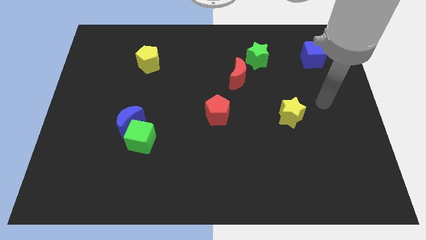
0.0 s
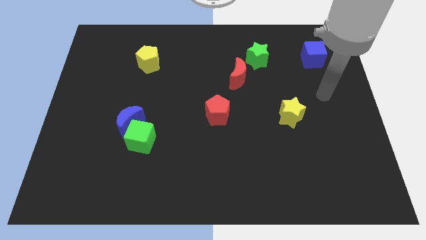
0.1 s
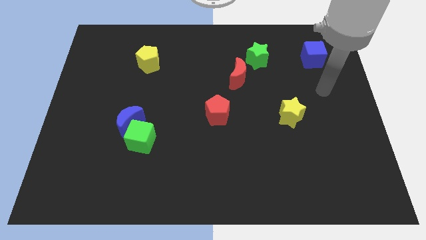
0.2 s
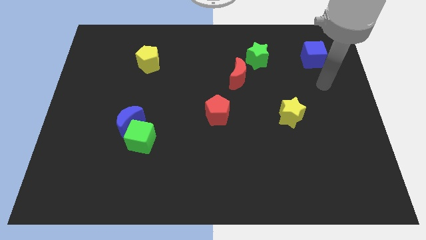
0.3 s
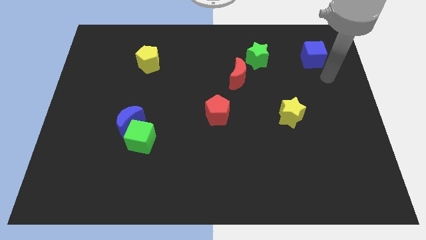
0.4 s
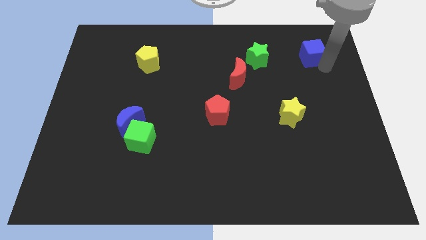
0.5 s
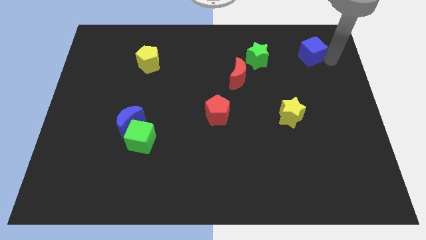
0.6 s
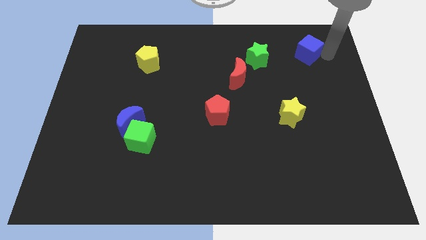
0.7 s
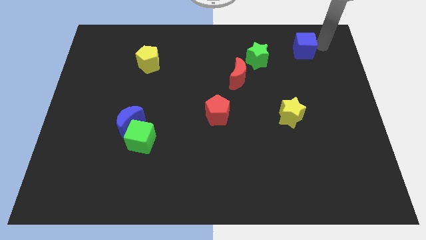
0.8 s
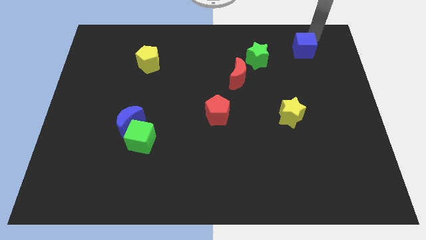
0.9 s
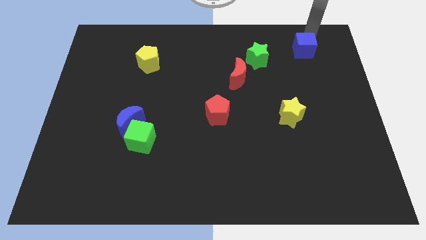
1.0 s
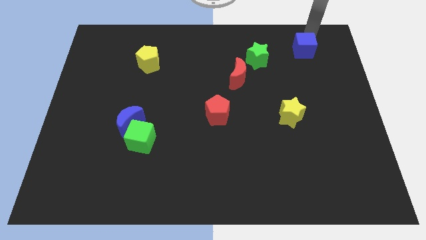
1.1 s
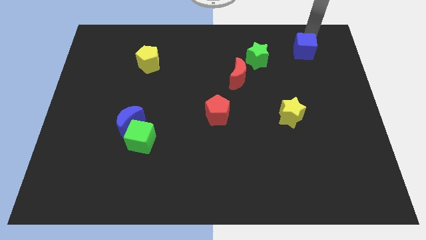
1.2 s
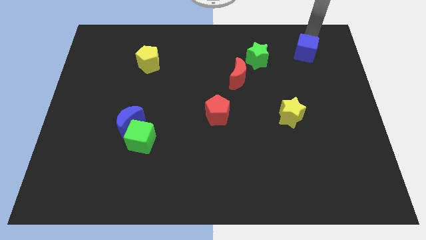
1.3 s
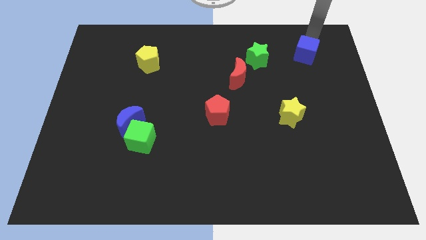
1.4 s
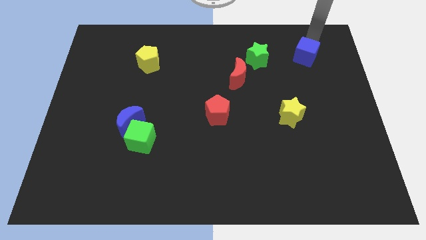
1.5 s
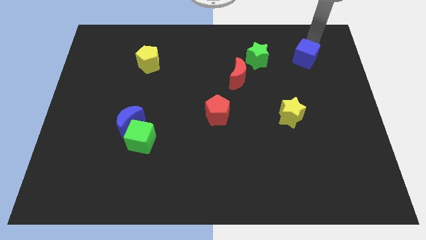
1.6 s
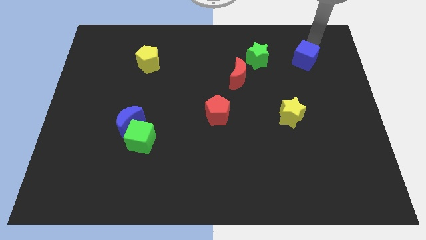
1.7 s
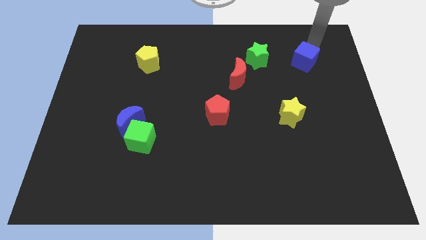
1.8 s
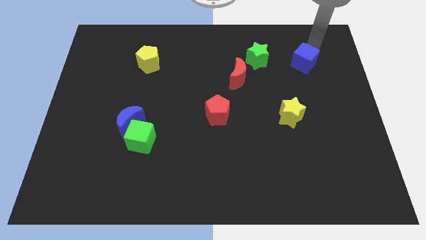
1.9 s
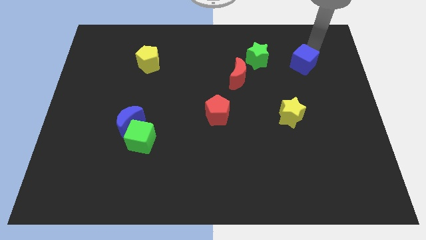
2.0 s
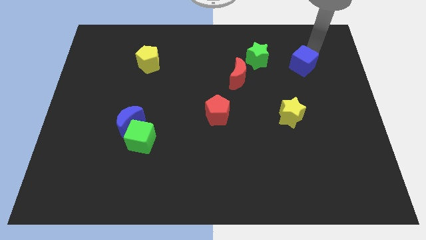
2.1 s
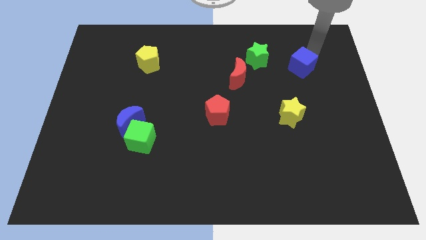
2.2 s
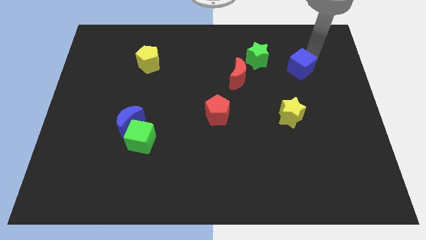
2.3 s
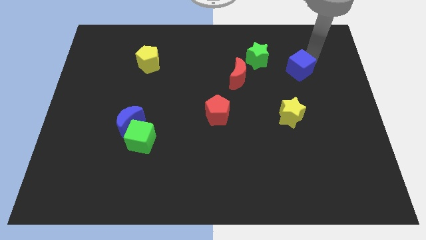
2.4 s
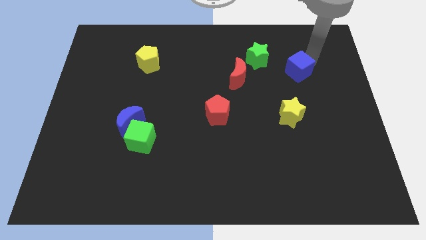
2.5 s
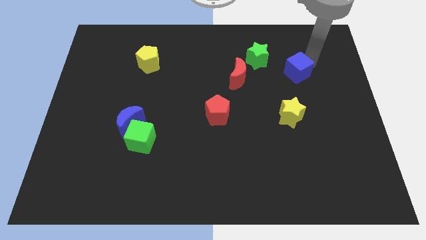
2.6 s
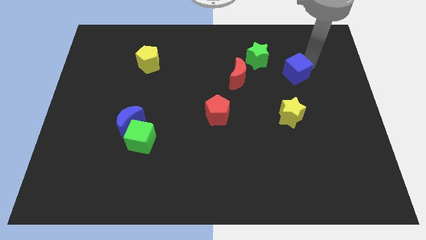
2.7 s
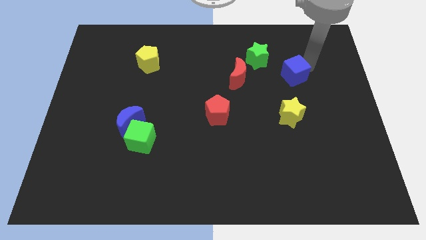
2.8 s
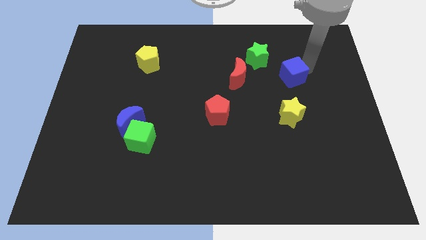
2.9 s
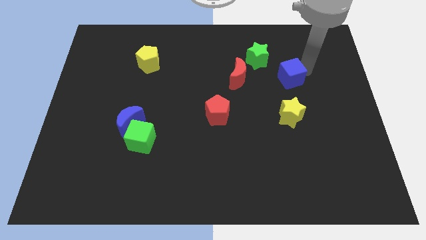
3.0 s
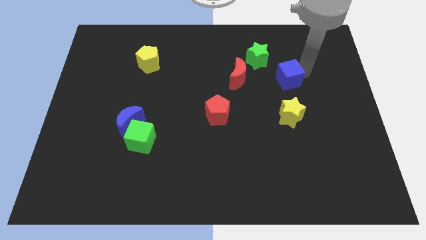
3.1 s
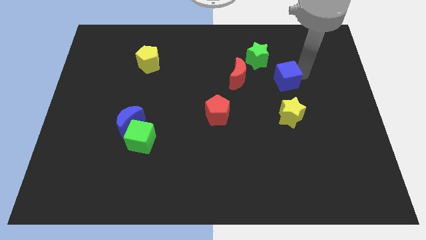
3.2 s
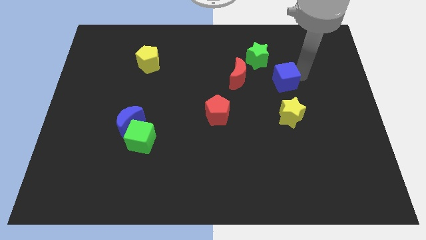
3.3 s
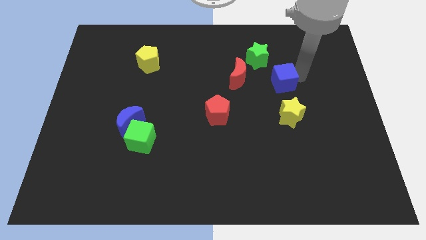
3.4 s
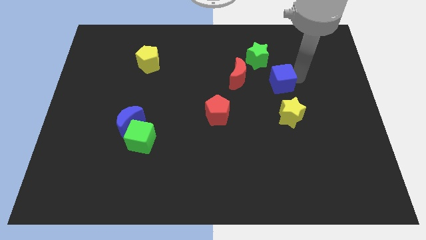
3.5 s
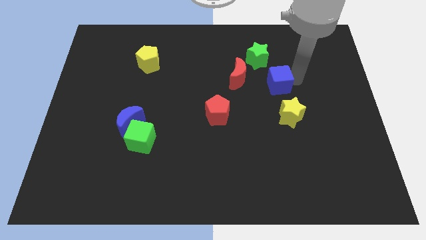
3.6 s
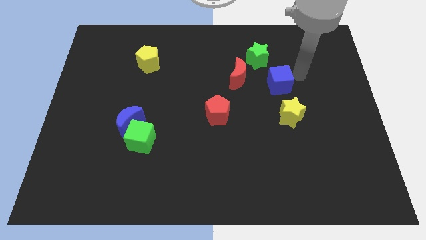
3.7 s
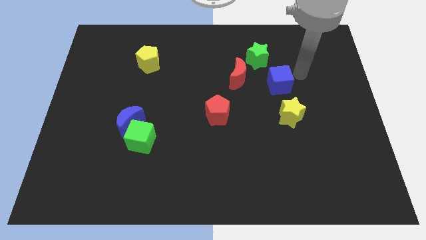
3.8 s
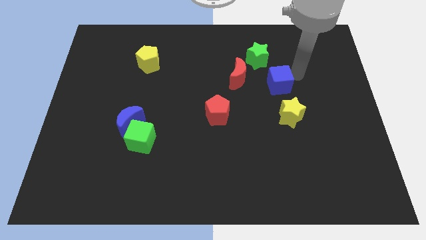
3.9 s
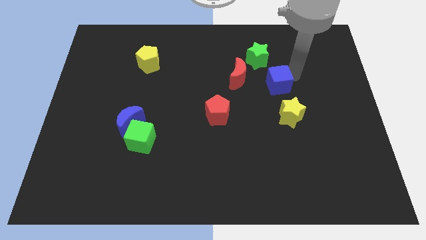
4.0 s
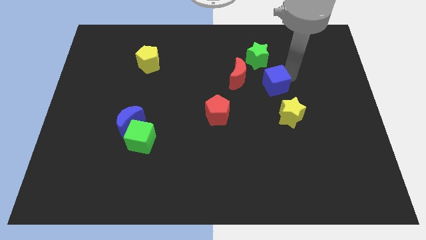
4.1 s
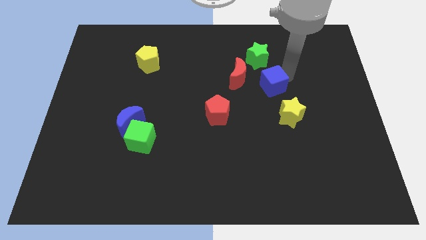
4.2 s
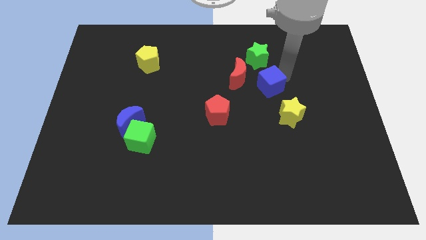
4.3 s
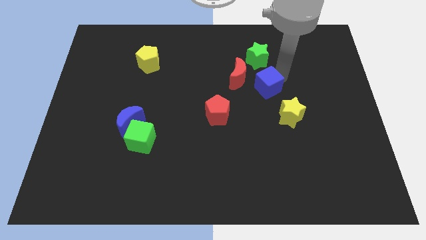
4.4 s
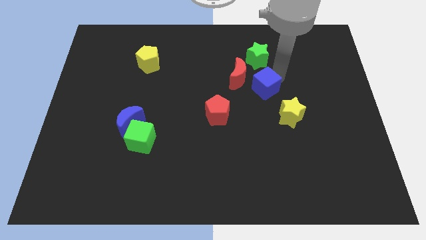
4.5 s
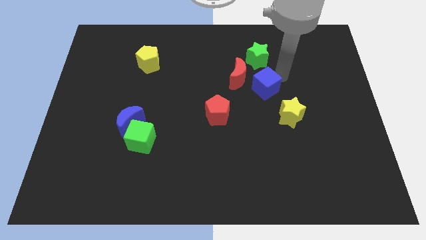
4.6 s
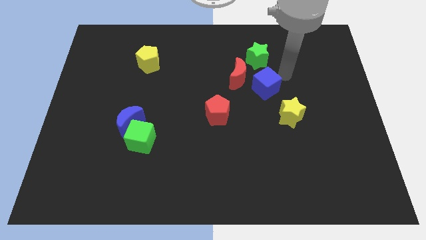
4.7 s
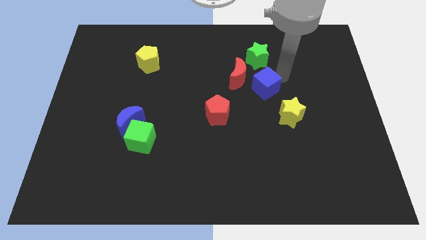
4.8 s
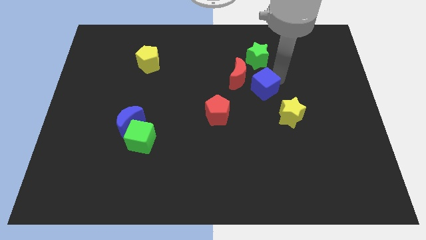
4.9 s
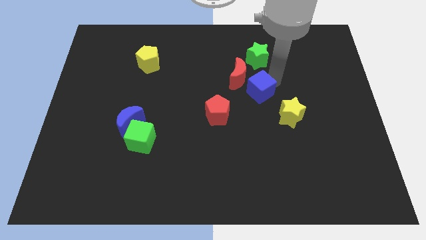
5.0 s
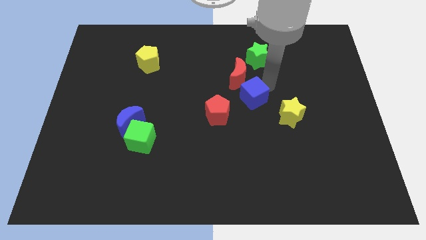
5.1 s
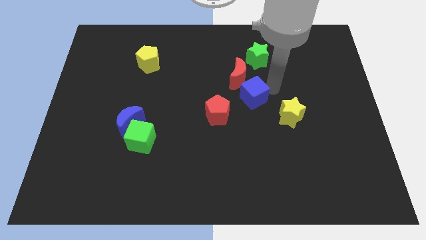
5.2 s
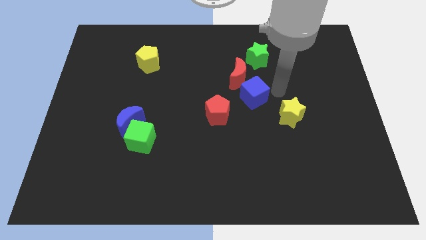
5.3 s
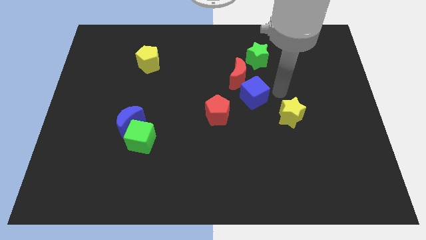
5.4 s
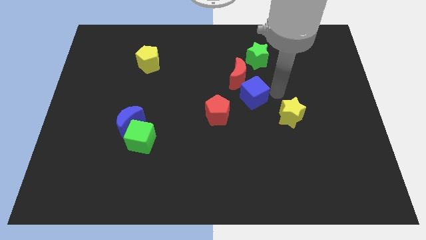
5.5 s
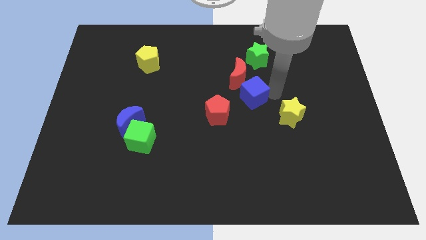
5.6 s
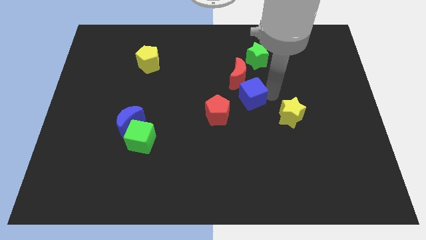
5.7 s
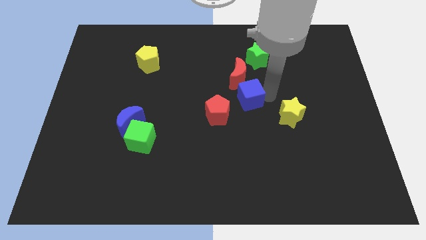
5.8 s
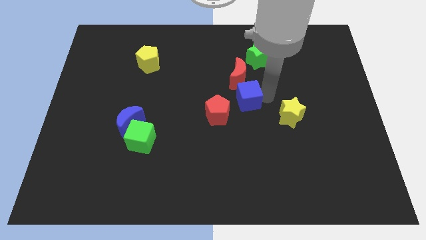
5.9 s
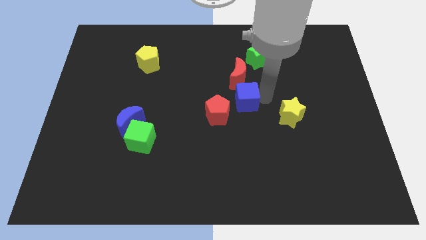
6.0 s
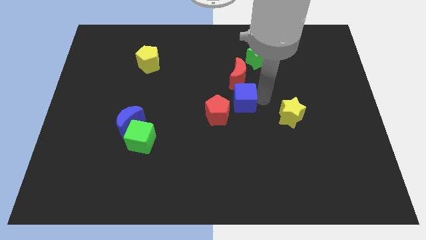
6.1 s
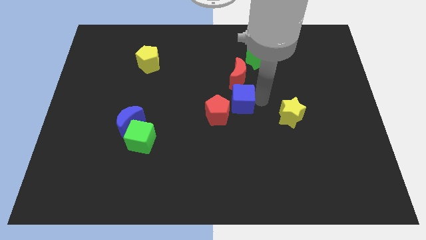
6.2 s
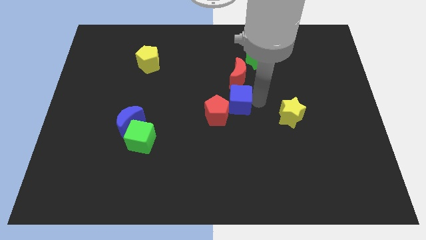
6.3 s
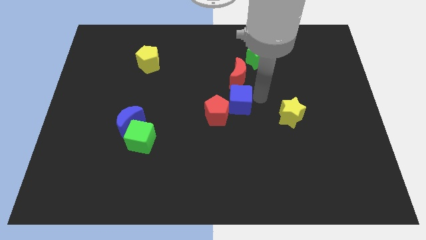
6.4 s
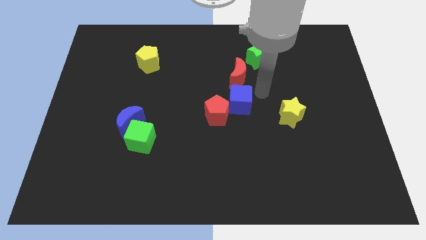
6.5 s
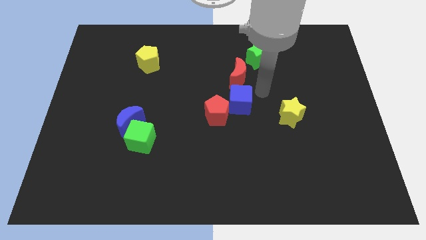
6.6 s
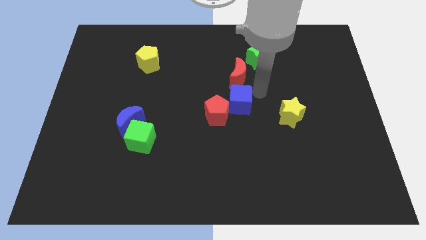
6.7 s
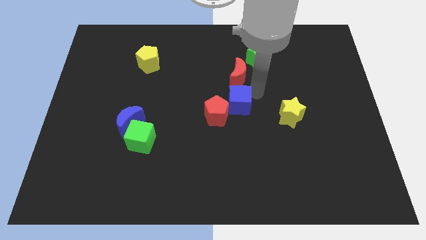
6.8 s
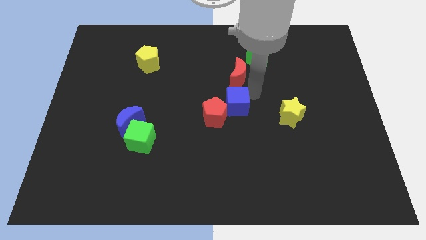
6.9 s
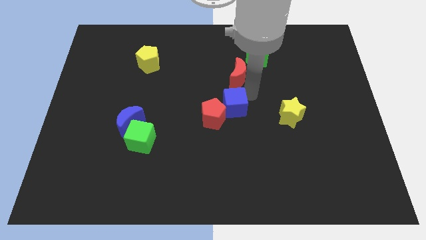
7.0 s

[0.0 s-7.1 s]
put the blue cube next to the red pentagon
